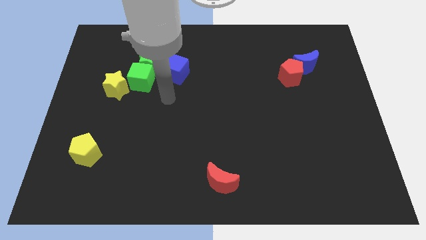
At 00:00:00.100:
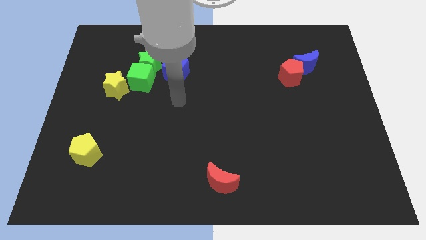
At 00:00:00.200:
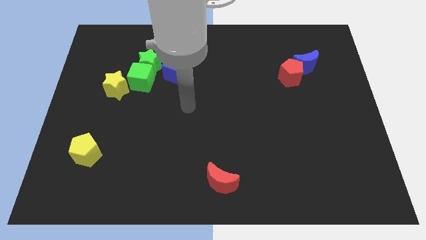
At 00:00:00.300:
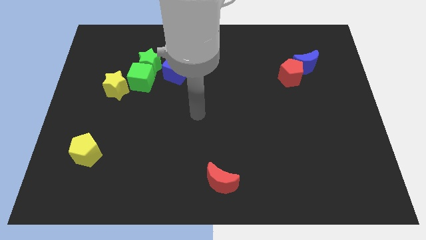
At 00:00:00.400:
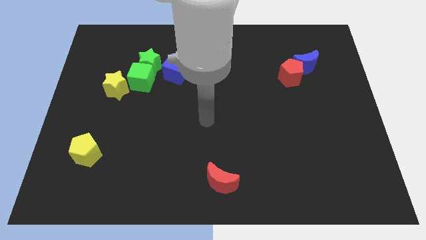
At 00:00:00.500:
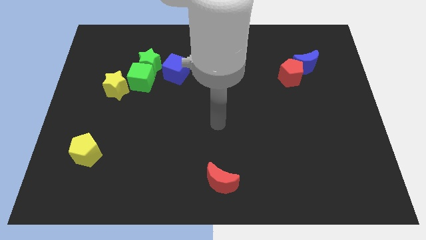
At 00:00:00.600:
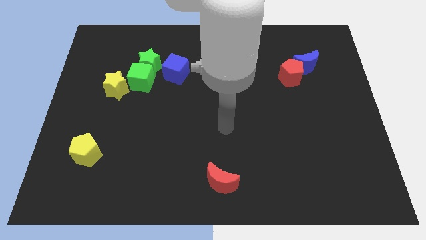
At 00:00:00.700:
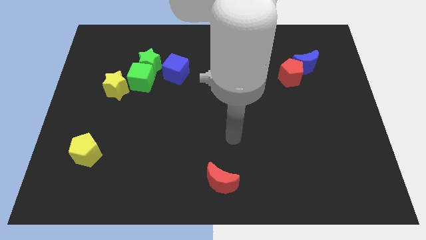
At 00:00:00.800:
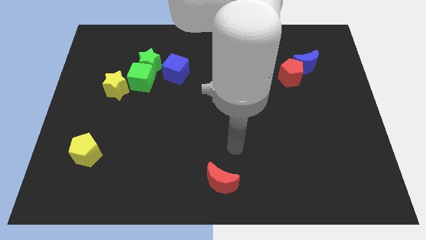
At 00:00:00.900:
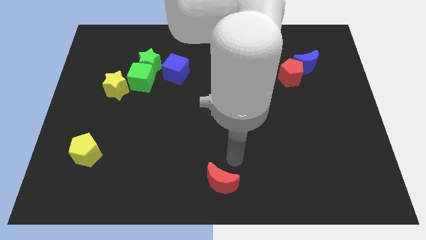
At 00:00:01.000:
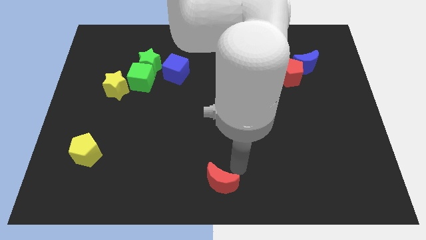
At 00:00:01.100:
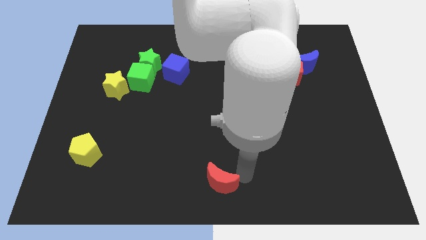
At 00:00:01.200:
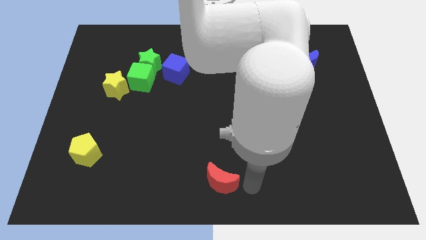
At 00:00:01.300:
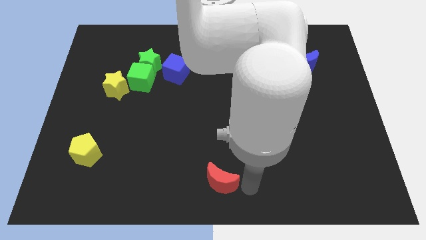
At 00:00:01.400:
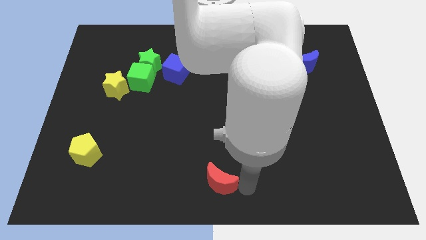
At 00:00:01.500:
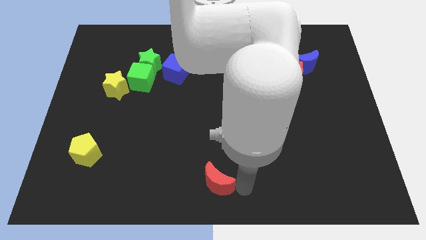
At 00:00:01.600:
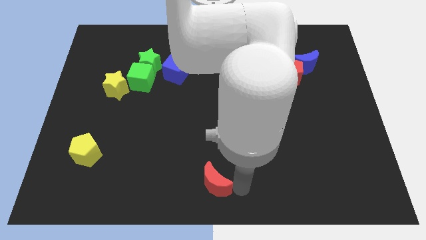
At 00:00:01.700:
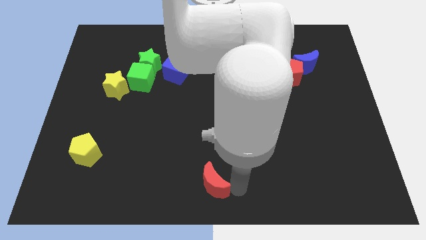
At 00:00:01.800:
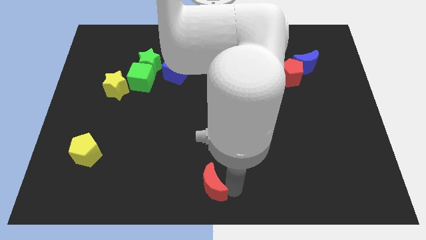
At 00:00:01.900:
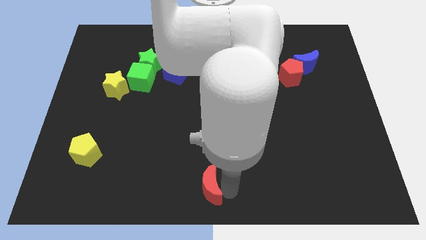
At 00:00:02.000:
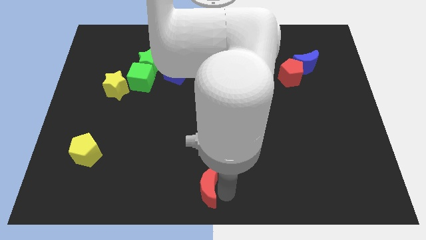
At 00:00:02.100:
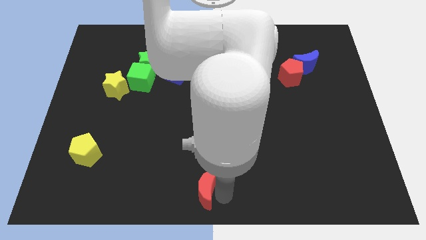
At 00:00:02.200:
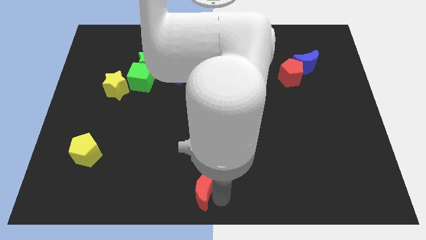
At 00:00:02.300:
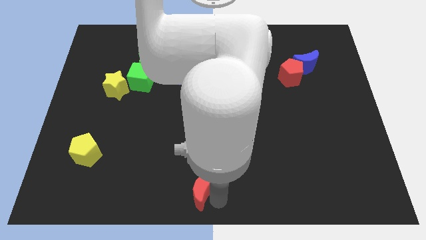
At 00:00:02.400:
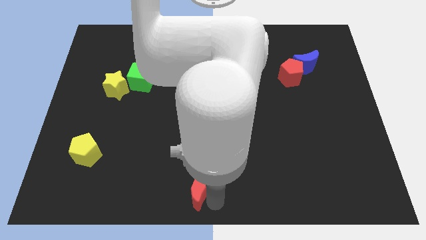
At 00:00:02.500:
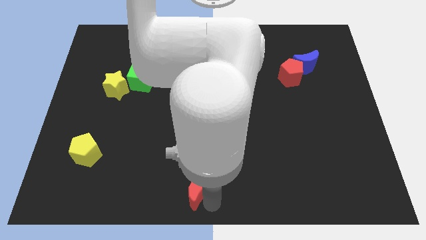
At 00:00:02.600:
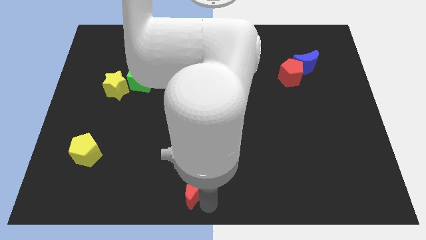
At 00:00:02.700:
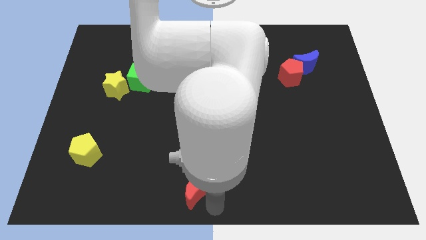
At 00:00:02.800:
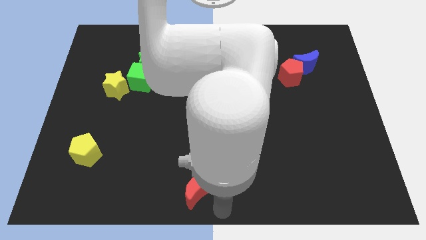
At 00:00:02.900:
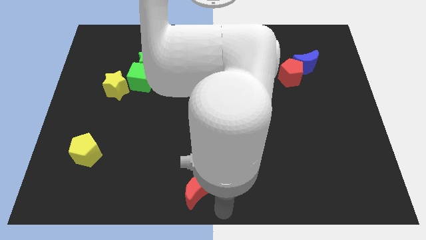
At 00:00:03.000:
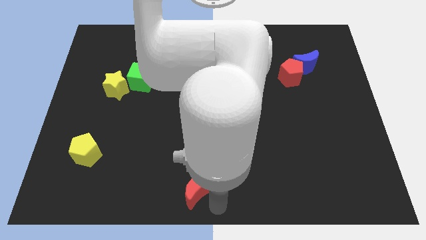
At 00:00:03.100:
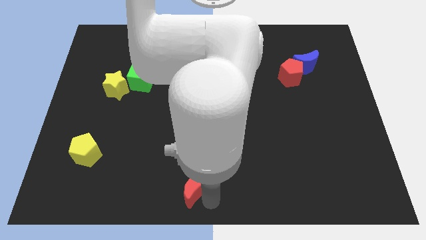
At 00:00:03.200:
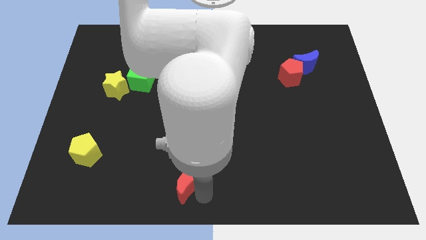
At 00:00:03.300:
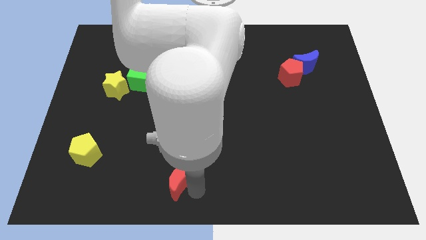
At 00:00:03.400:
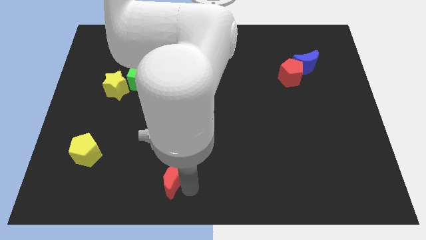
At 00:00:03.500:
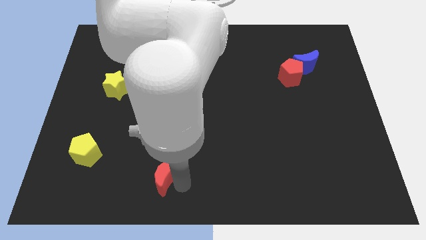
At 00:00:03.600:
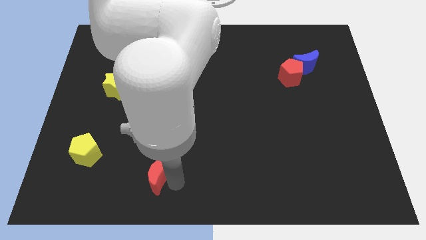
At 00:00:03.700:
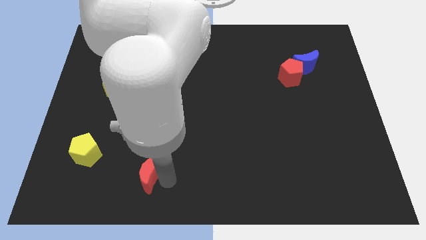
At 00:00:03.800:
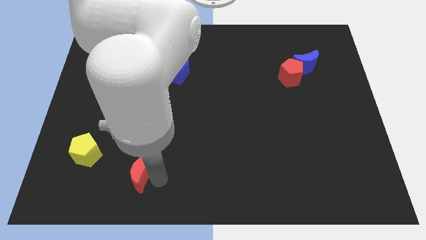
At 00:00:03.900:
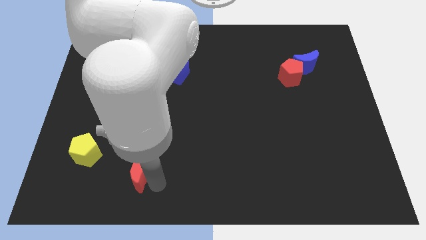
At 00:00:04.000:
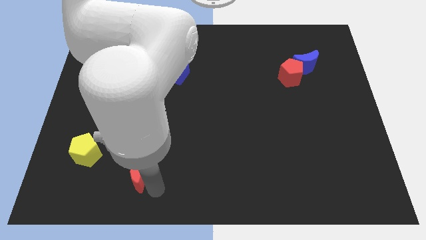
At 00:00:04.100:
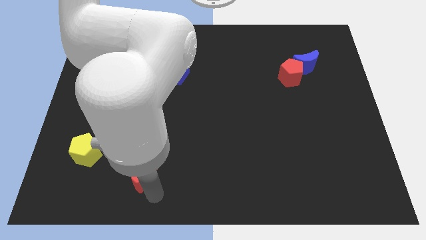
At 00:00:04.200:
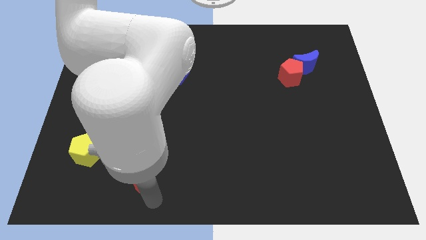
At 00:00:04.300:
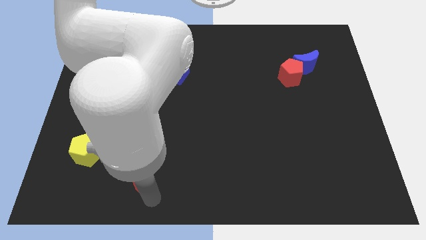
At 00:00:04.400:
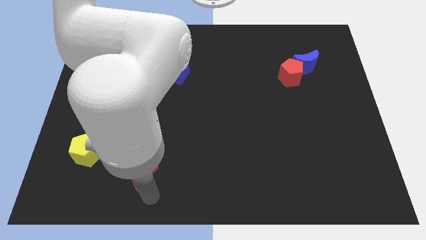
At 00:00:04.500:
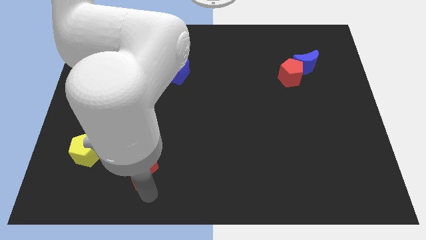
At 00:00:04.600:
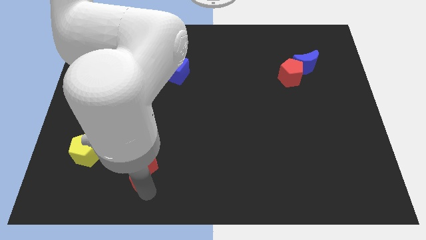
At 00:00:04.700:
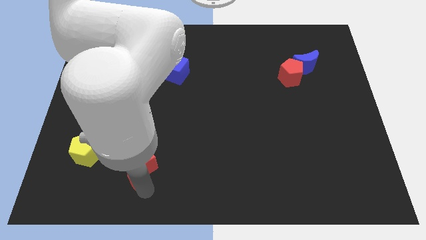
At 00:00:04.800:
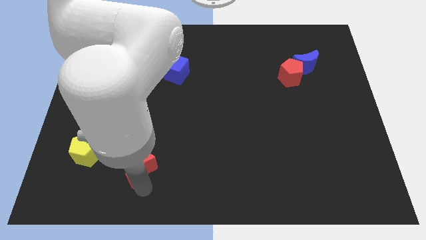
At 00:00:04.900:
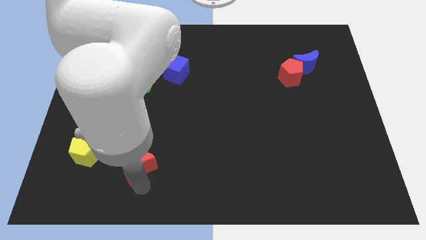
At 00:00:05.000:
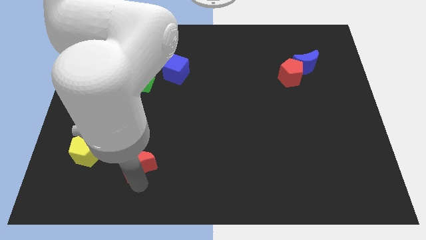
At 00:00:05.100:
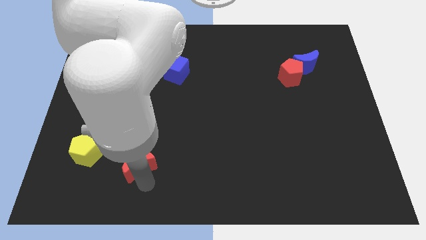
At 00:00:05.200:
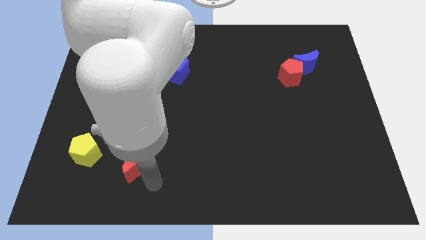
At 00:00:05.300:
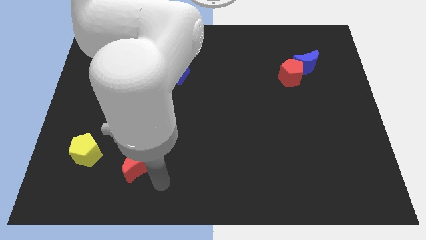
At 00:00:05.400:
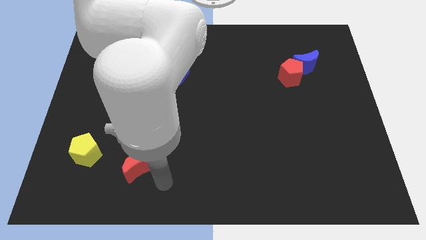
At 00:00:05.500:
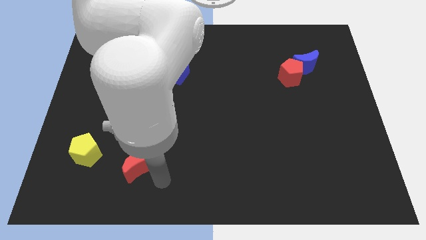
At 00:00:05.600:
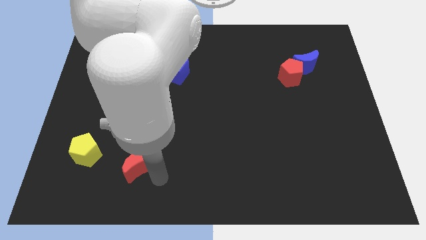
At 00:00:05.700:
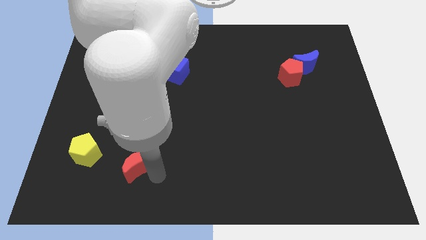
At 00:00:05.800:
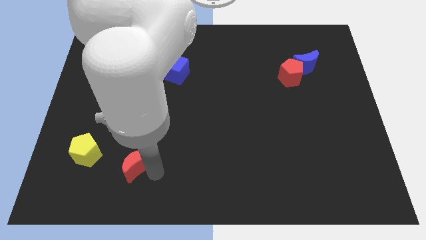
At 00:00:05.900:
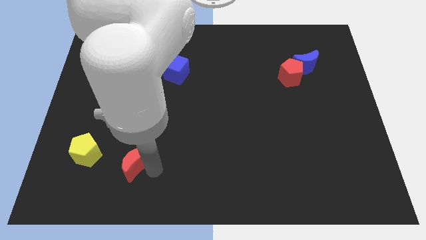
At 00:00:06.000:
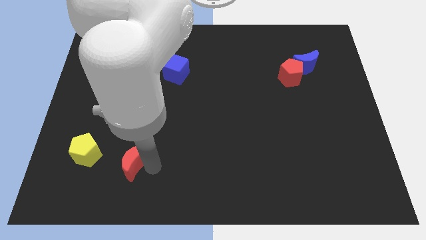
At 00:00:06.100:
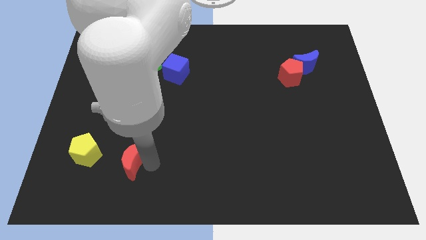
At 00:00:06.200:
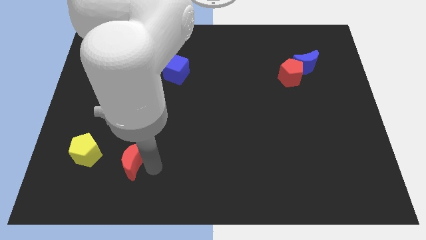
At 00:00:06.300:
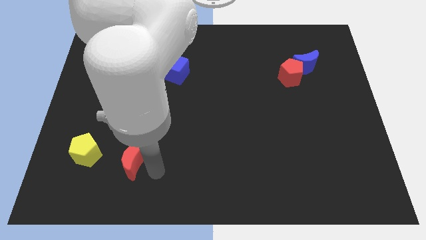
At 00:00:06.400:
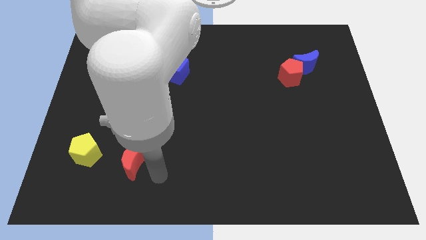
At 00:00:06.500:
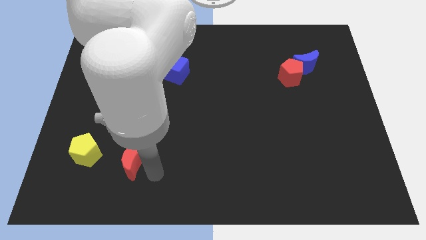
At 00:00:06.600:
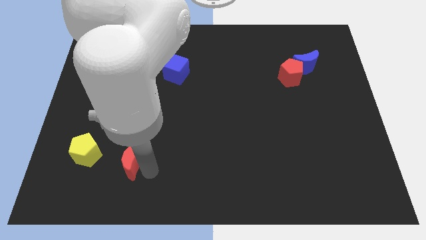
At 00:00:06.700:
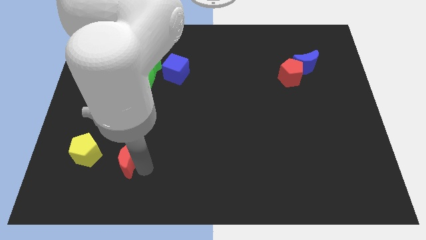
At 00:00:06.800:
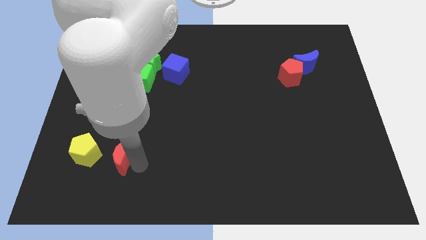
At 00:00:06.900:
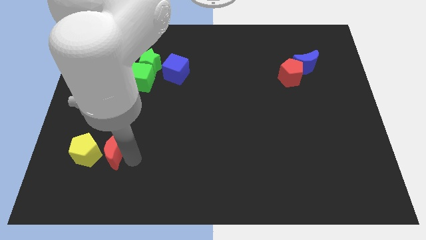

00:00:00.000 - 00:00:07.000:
put the red moon towards the yellow pentagon
